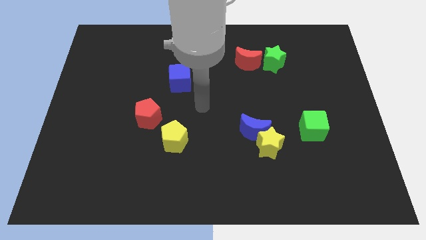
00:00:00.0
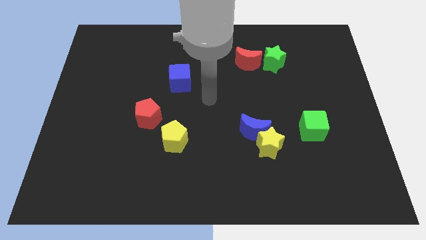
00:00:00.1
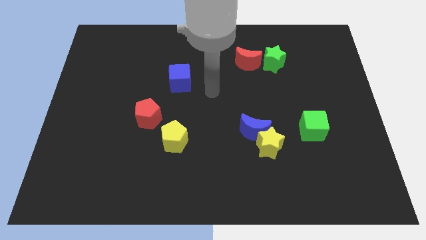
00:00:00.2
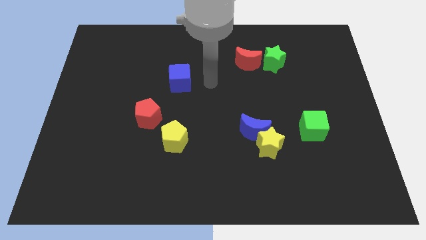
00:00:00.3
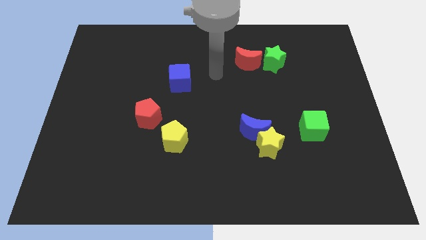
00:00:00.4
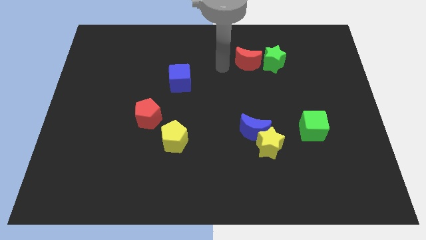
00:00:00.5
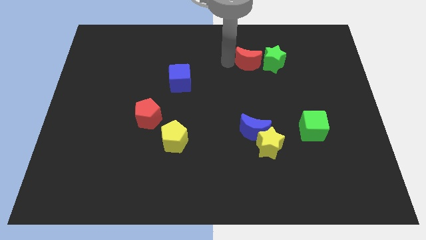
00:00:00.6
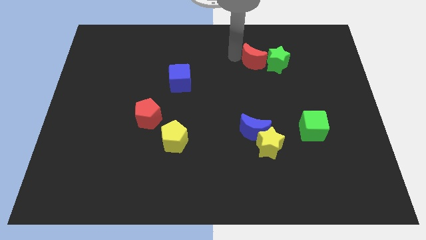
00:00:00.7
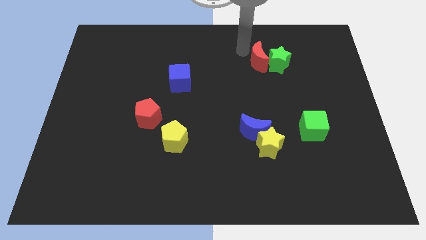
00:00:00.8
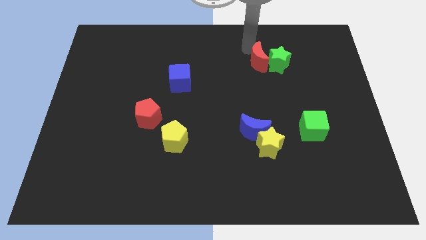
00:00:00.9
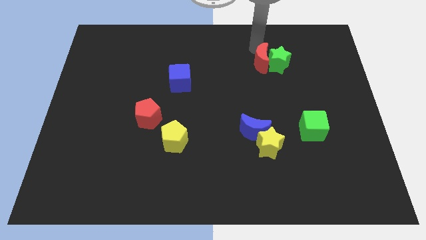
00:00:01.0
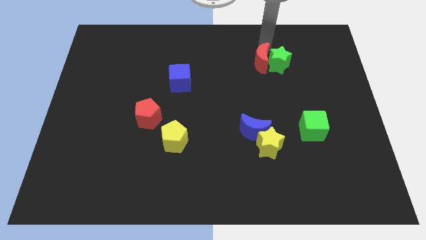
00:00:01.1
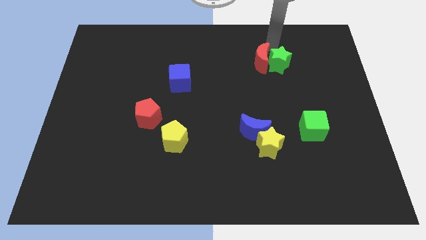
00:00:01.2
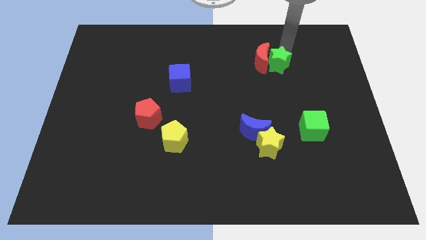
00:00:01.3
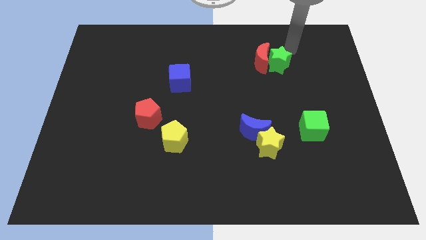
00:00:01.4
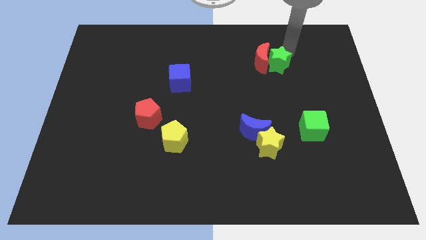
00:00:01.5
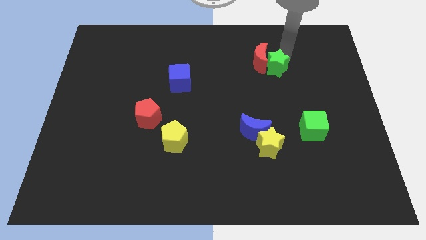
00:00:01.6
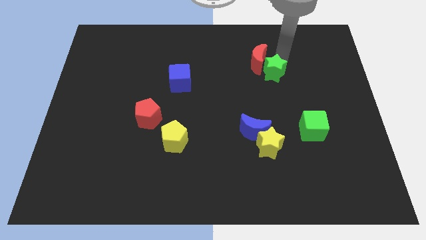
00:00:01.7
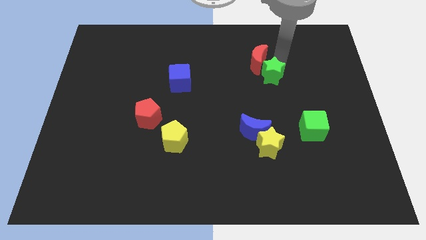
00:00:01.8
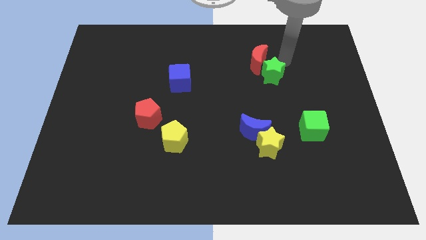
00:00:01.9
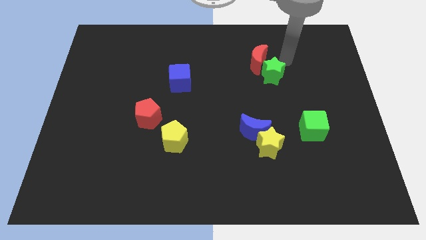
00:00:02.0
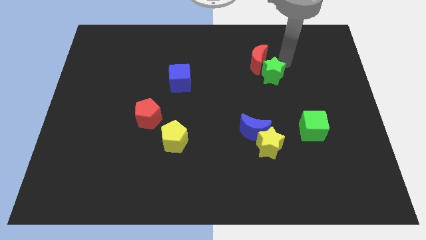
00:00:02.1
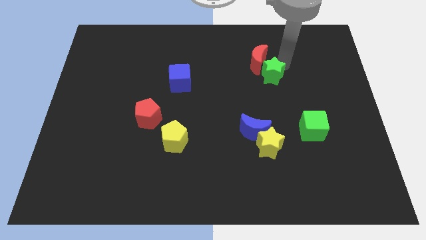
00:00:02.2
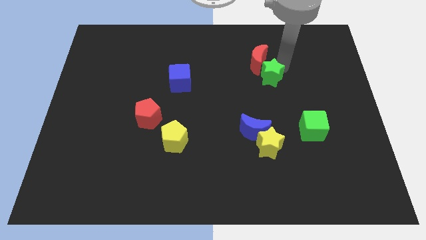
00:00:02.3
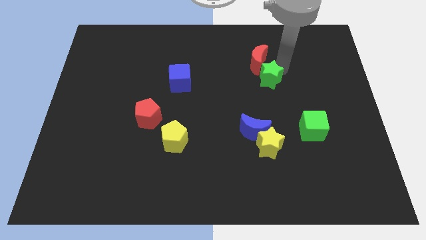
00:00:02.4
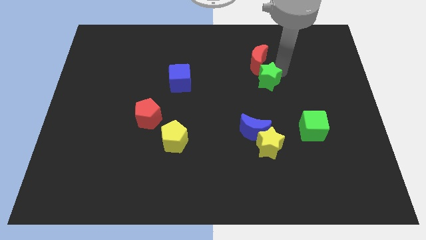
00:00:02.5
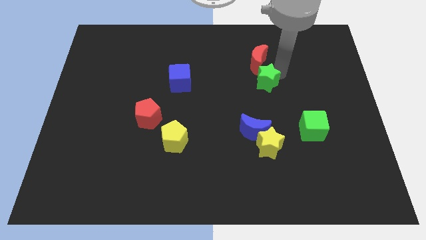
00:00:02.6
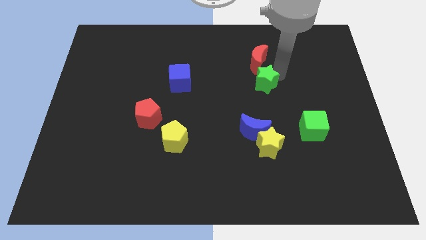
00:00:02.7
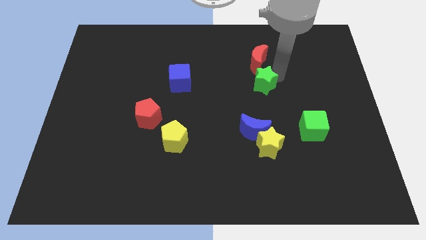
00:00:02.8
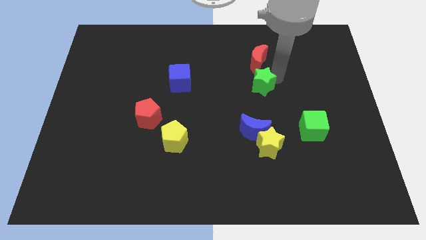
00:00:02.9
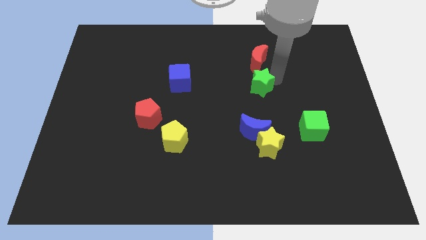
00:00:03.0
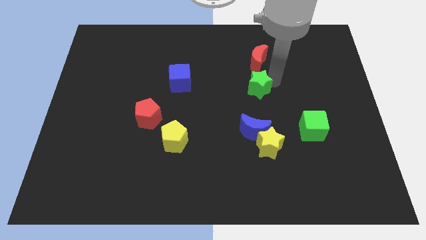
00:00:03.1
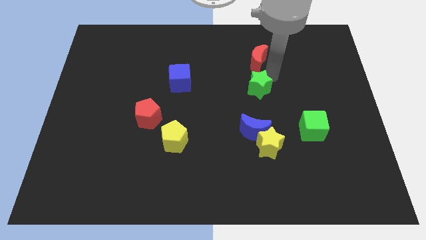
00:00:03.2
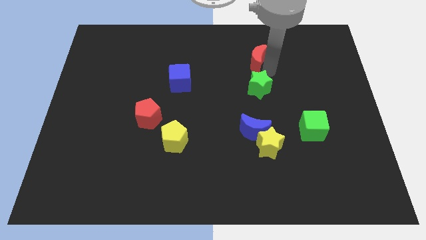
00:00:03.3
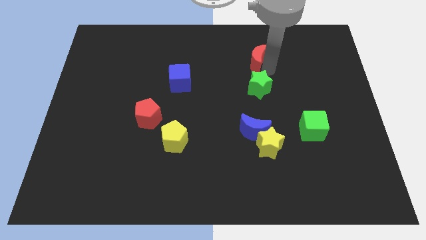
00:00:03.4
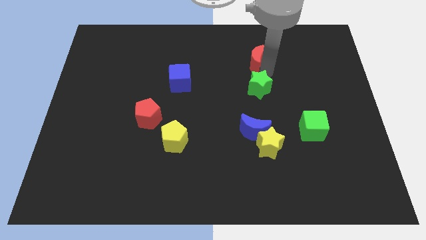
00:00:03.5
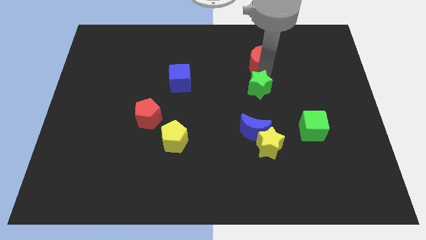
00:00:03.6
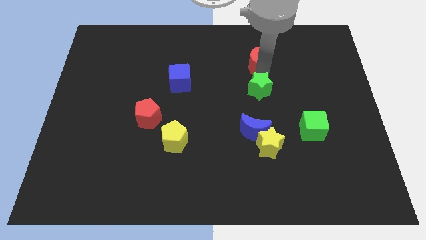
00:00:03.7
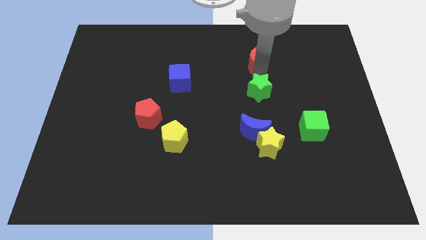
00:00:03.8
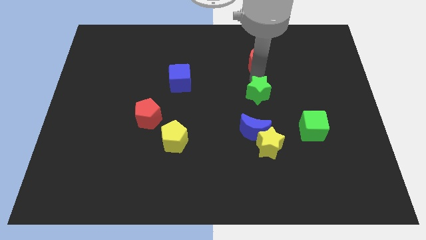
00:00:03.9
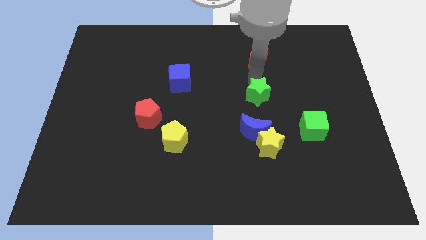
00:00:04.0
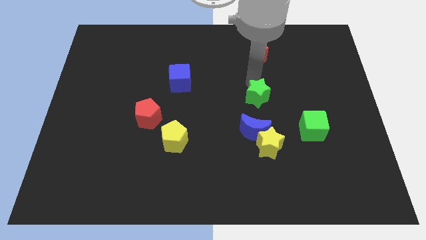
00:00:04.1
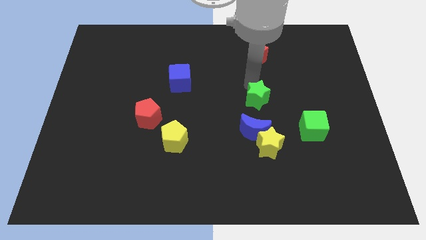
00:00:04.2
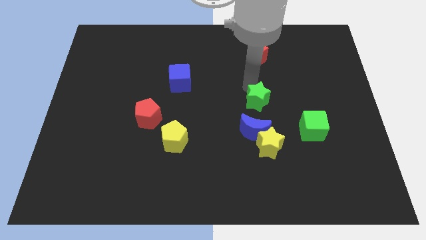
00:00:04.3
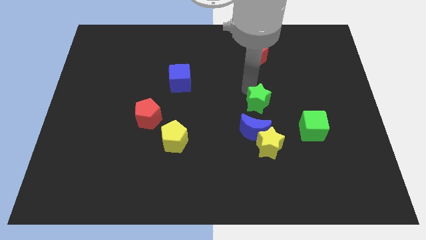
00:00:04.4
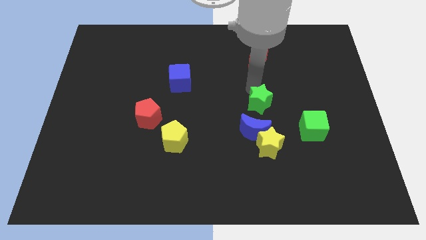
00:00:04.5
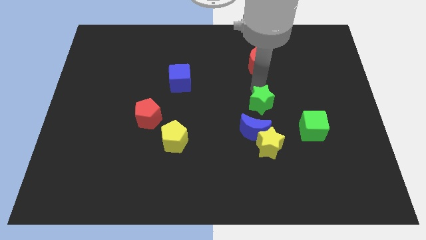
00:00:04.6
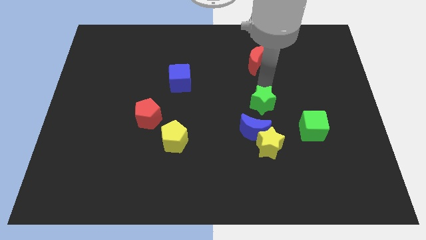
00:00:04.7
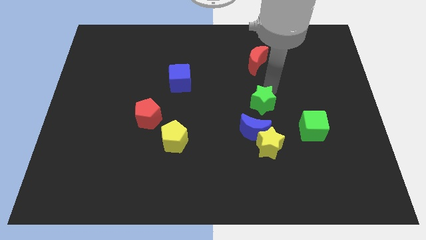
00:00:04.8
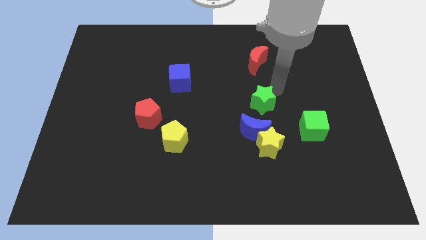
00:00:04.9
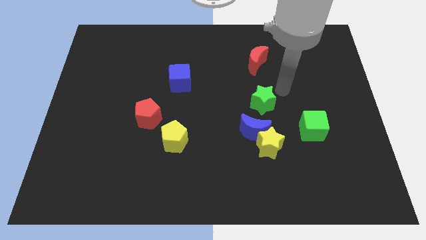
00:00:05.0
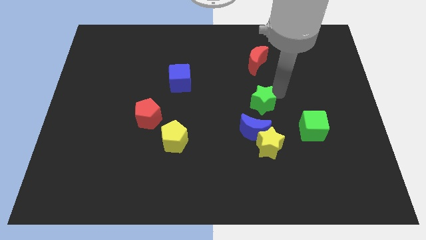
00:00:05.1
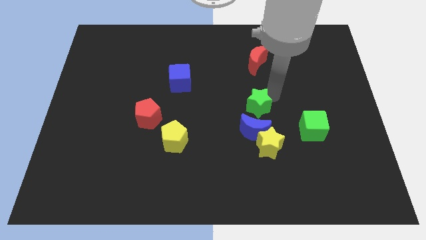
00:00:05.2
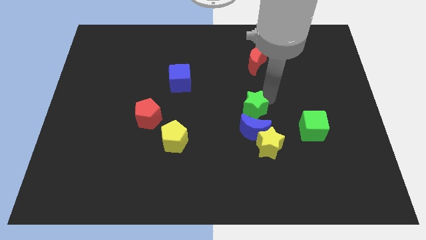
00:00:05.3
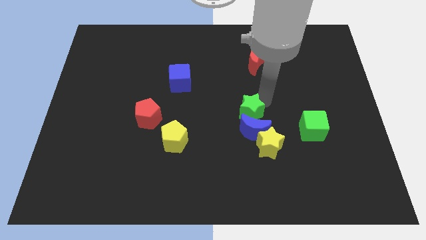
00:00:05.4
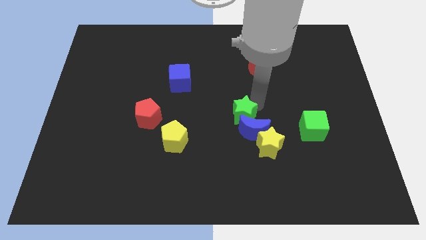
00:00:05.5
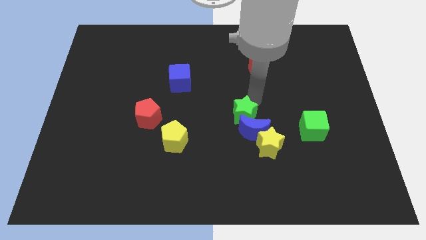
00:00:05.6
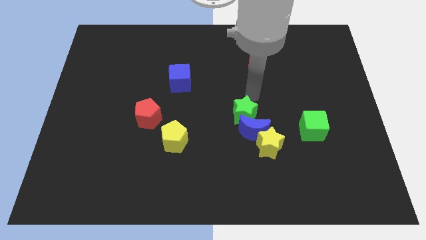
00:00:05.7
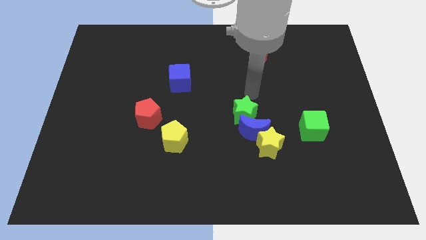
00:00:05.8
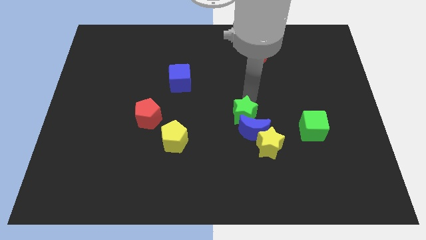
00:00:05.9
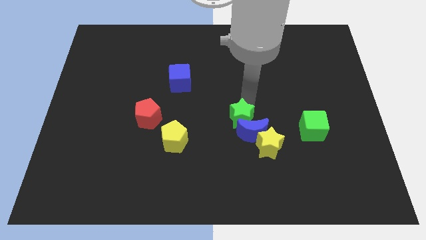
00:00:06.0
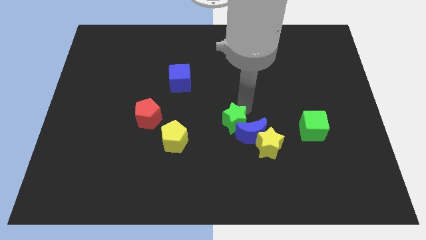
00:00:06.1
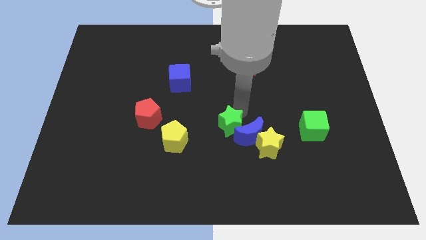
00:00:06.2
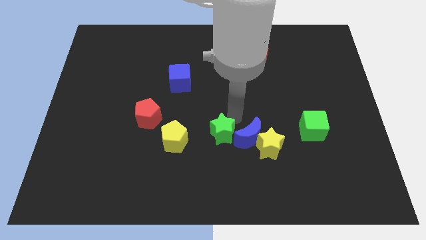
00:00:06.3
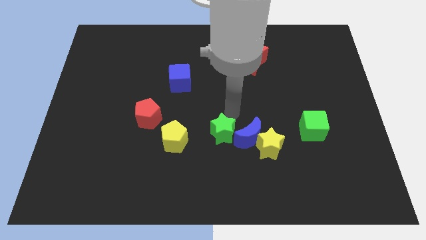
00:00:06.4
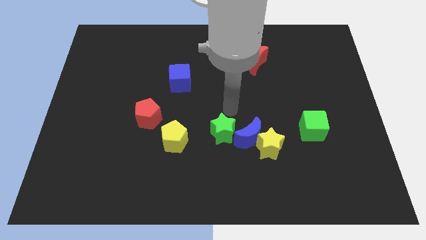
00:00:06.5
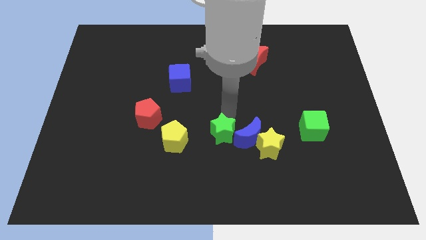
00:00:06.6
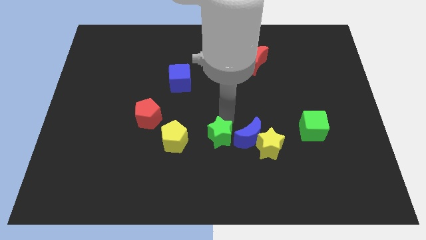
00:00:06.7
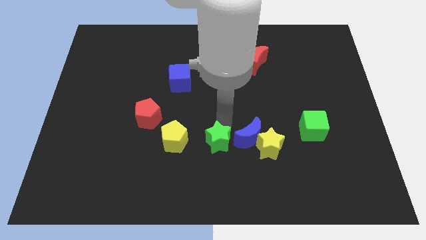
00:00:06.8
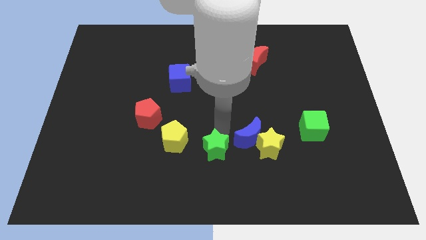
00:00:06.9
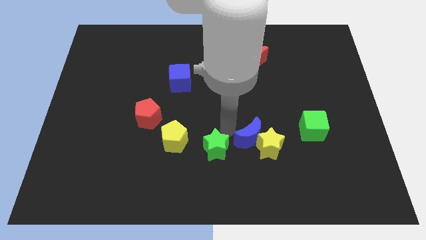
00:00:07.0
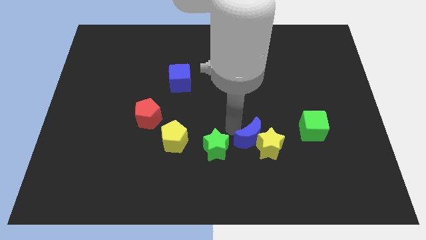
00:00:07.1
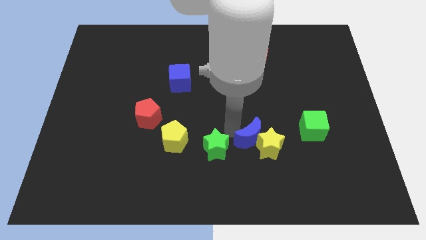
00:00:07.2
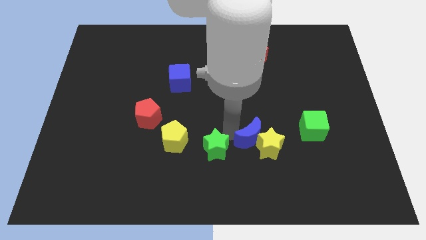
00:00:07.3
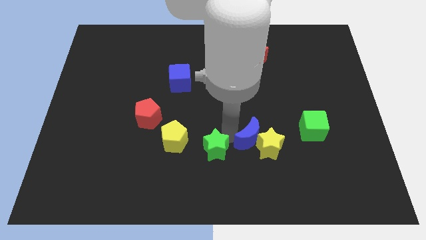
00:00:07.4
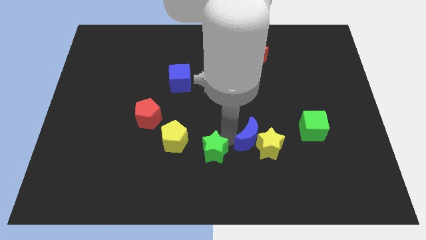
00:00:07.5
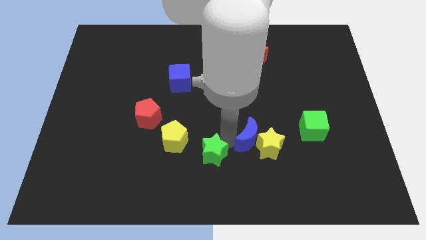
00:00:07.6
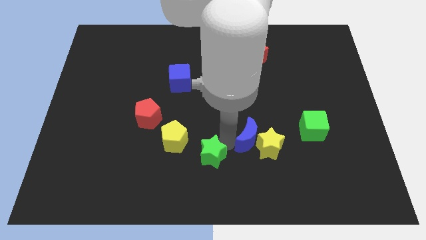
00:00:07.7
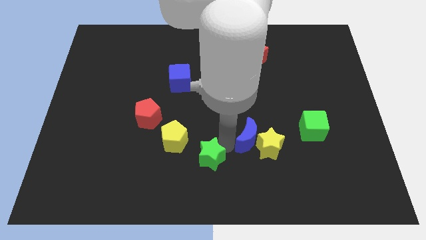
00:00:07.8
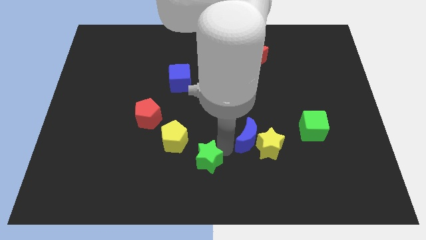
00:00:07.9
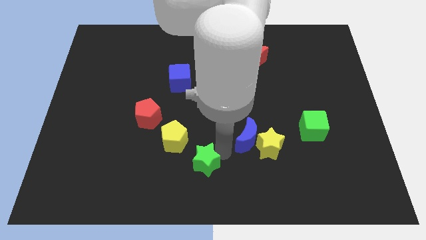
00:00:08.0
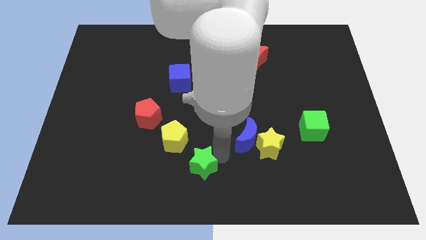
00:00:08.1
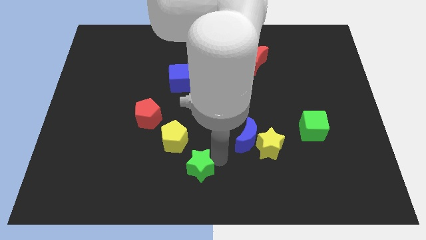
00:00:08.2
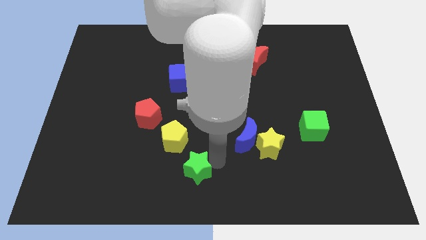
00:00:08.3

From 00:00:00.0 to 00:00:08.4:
put the green star to the bottom side of the yellow pentagon
